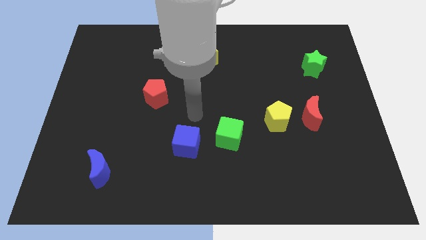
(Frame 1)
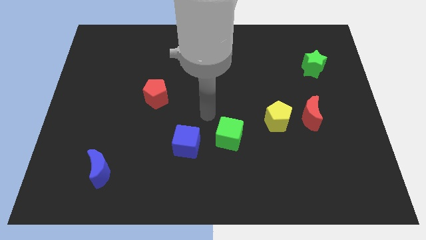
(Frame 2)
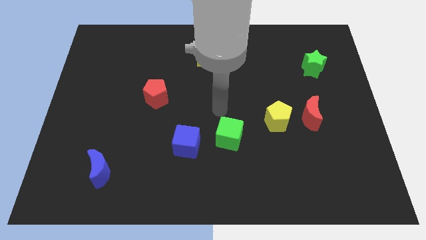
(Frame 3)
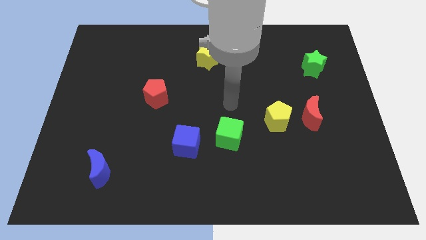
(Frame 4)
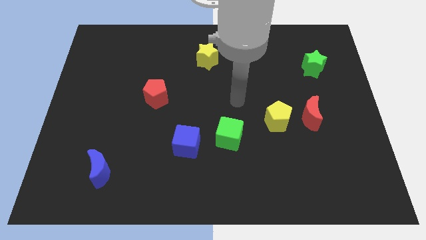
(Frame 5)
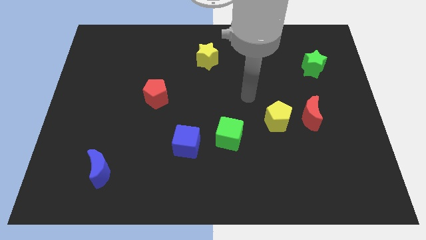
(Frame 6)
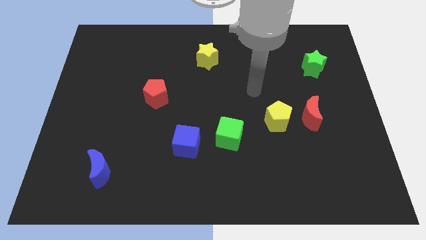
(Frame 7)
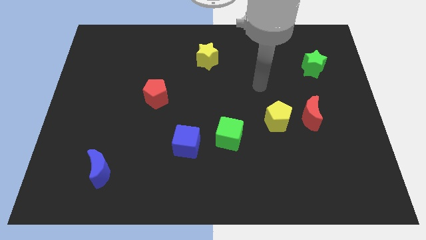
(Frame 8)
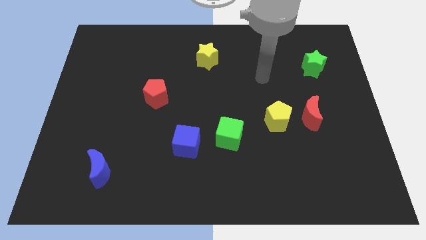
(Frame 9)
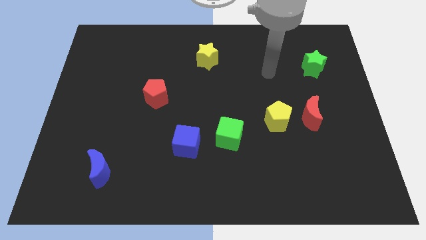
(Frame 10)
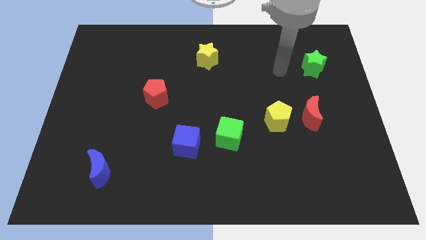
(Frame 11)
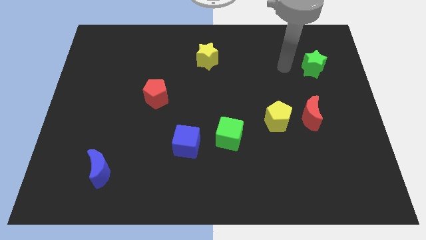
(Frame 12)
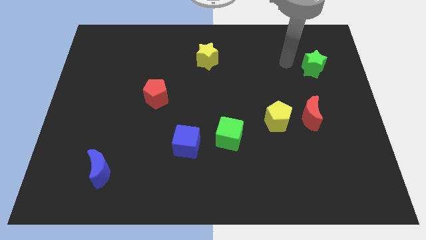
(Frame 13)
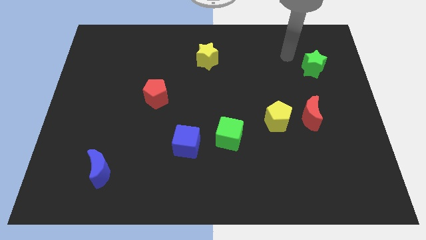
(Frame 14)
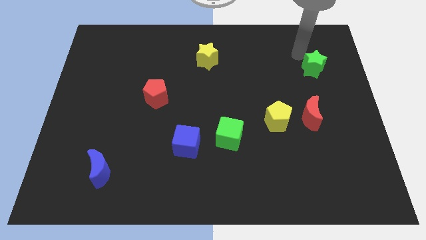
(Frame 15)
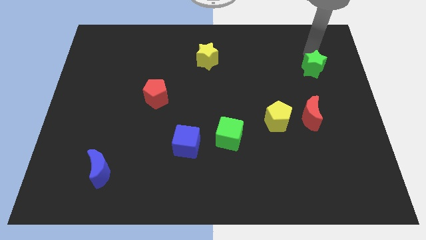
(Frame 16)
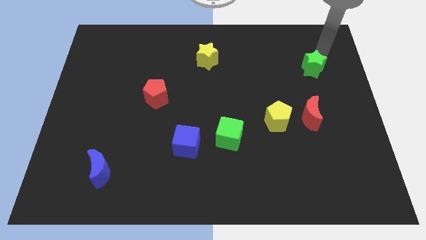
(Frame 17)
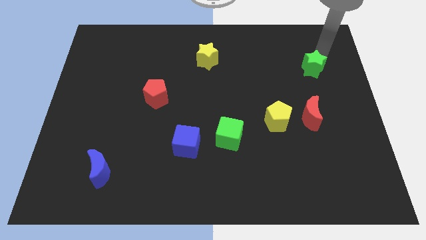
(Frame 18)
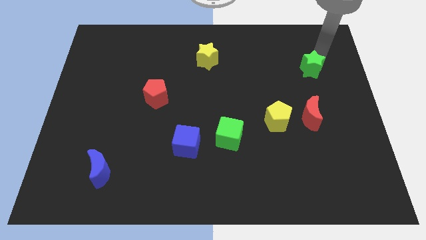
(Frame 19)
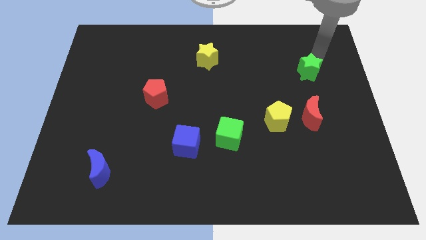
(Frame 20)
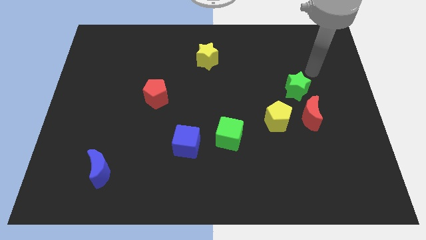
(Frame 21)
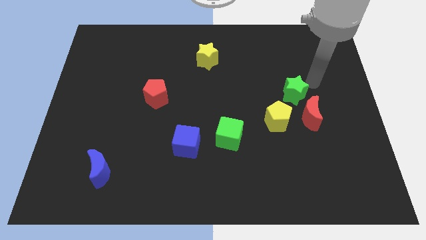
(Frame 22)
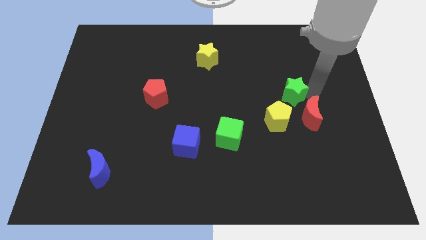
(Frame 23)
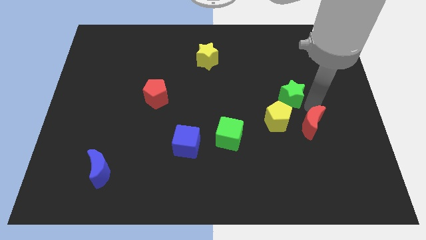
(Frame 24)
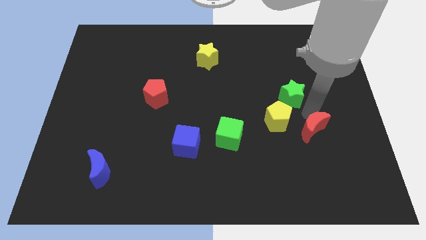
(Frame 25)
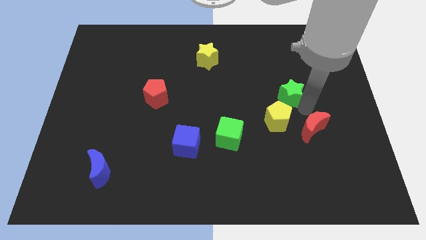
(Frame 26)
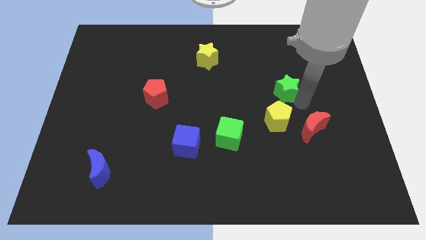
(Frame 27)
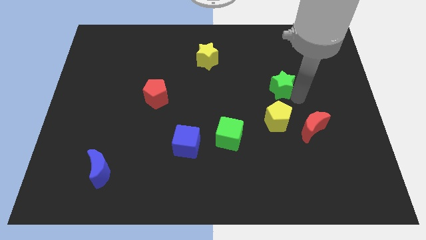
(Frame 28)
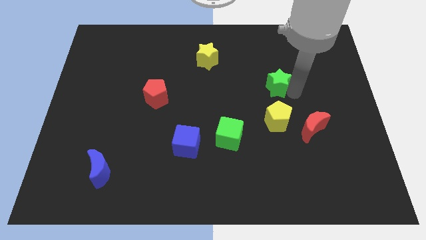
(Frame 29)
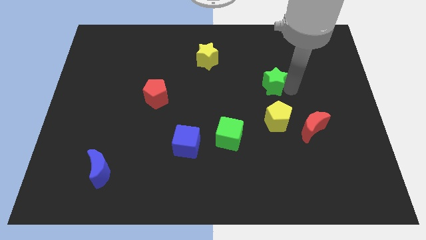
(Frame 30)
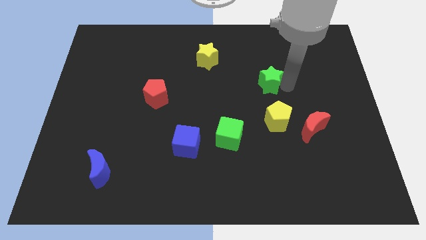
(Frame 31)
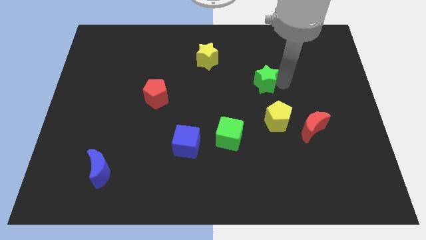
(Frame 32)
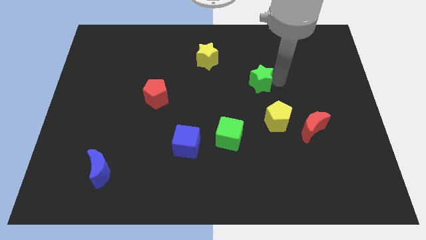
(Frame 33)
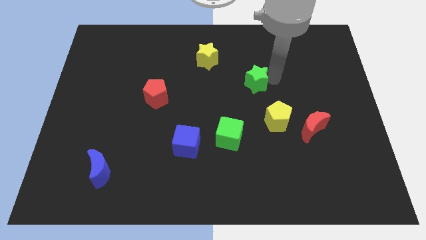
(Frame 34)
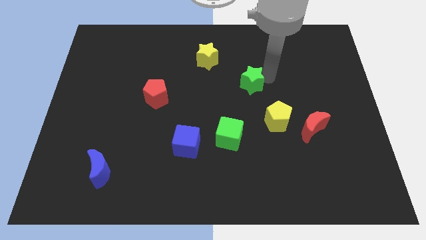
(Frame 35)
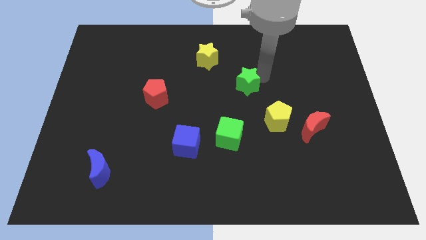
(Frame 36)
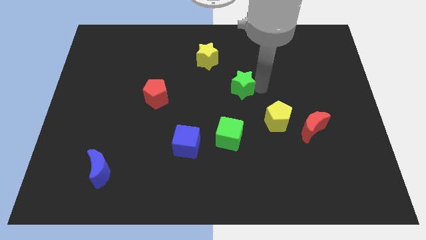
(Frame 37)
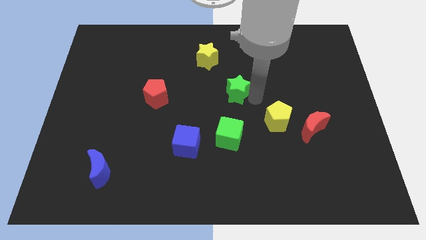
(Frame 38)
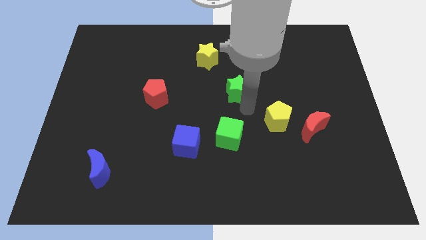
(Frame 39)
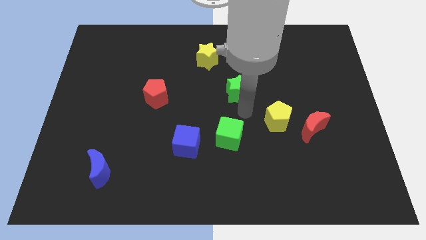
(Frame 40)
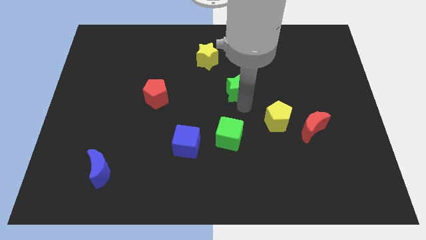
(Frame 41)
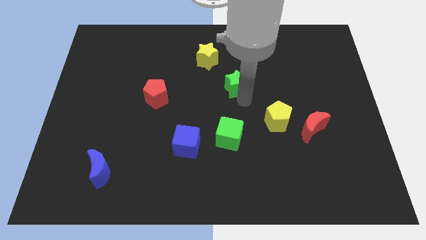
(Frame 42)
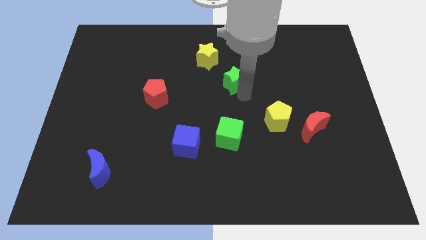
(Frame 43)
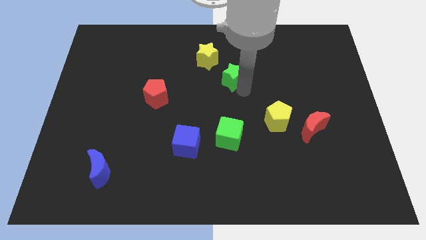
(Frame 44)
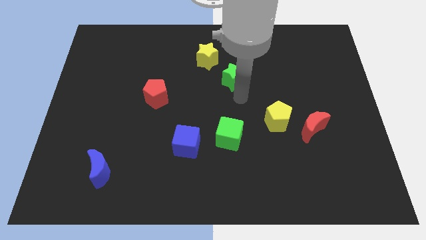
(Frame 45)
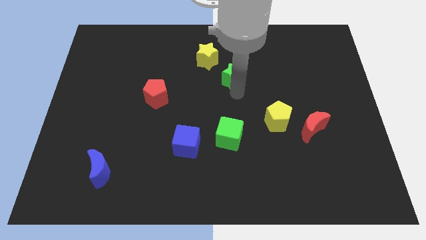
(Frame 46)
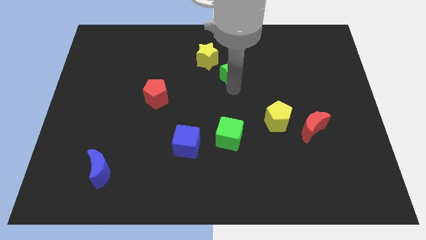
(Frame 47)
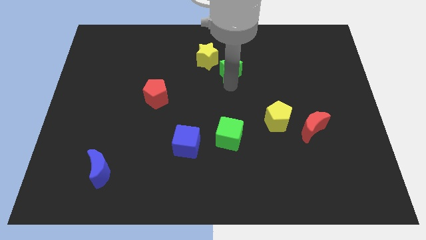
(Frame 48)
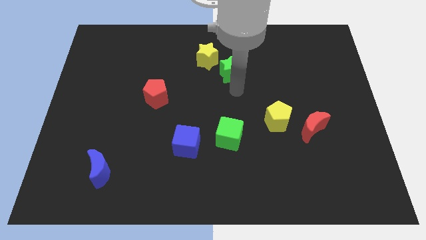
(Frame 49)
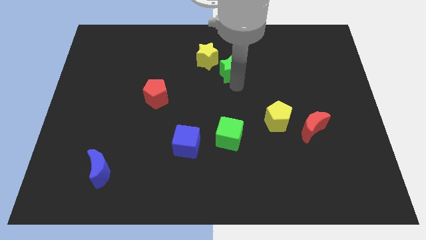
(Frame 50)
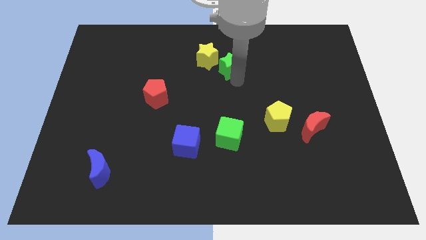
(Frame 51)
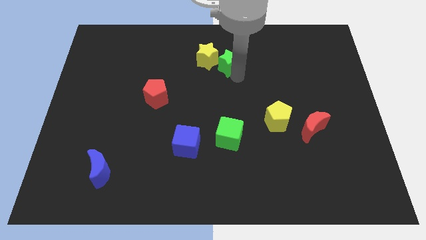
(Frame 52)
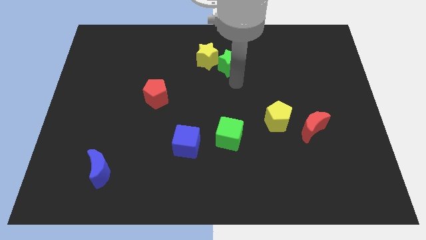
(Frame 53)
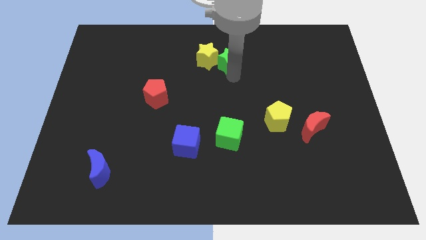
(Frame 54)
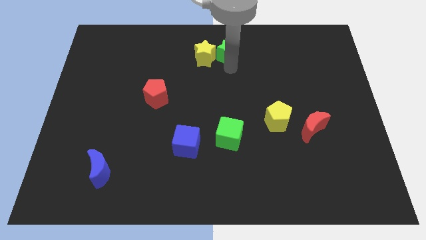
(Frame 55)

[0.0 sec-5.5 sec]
move the green star to the top
